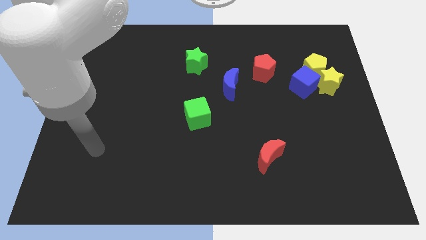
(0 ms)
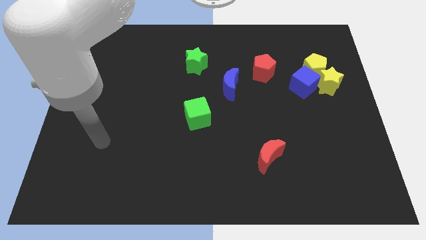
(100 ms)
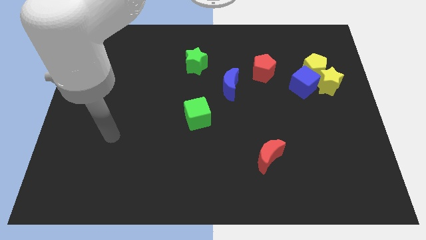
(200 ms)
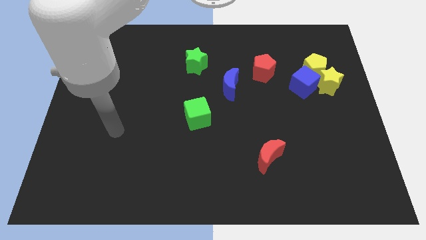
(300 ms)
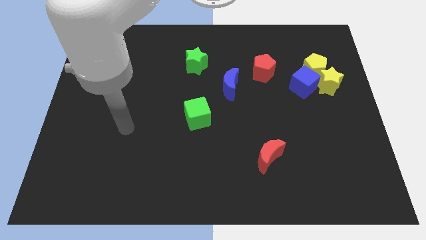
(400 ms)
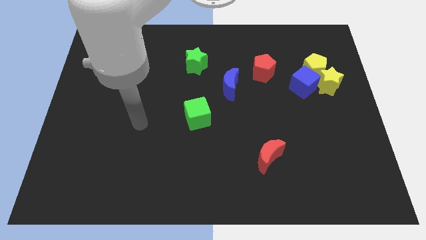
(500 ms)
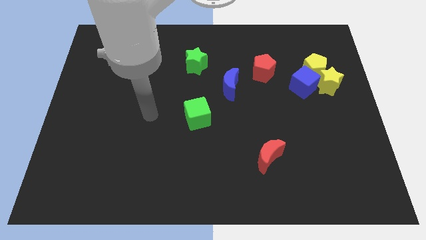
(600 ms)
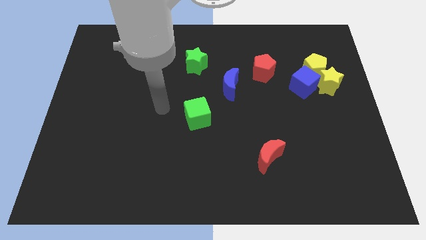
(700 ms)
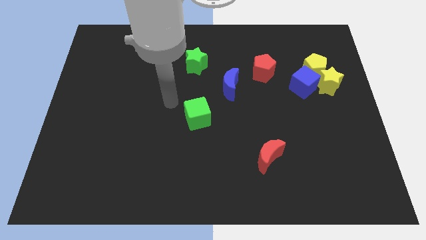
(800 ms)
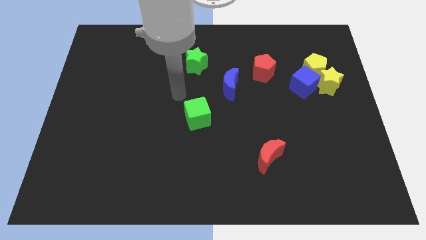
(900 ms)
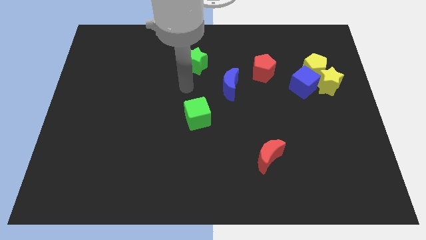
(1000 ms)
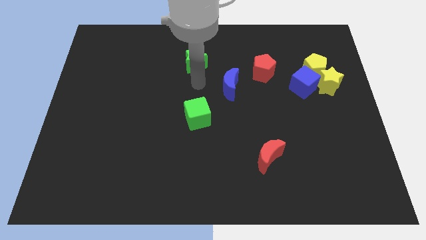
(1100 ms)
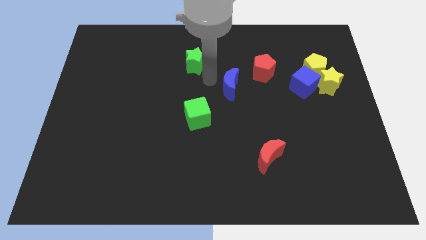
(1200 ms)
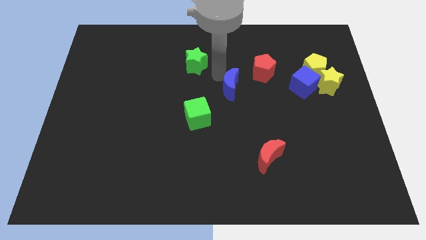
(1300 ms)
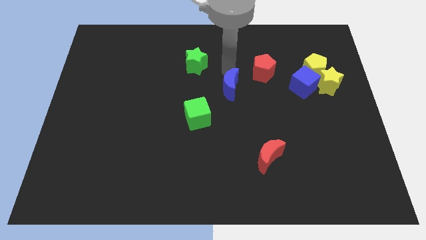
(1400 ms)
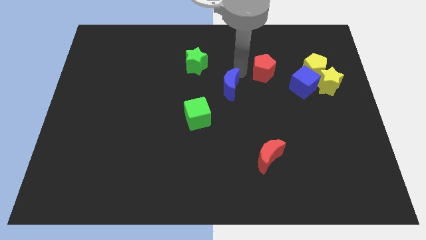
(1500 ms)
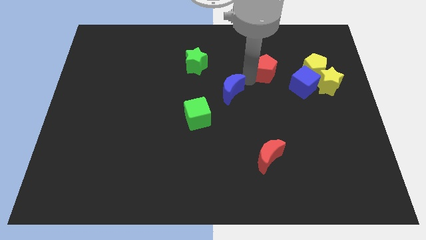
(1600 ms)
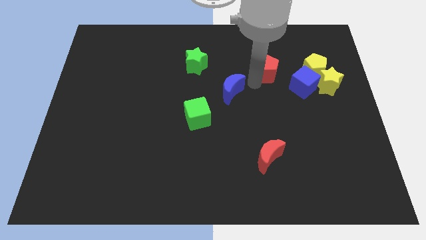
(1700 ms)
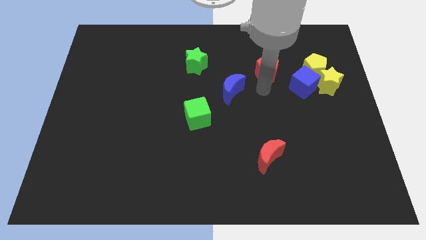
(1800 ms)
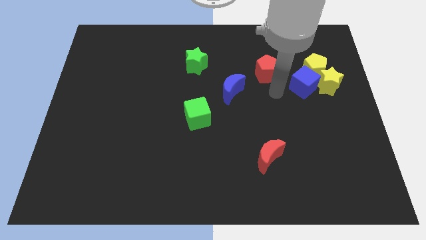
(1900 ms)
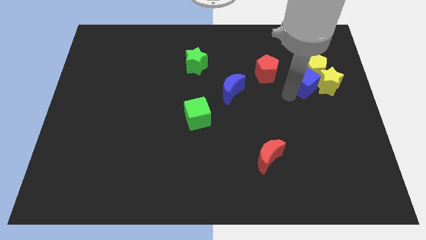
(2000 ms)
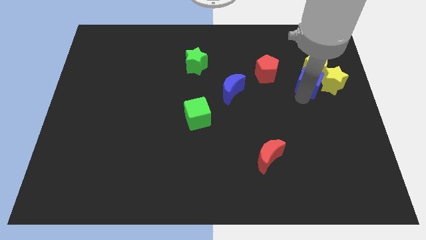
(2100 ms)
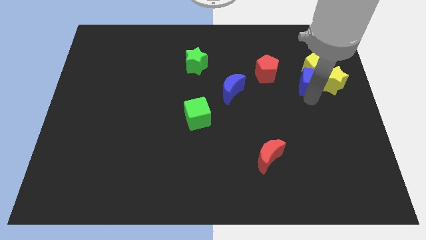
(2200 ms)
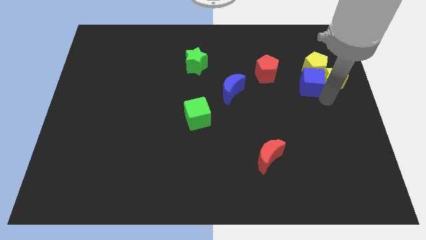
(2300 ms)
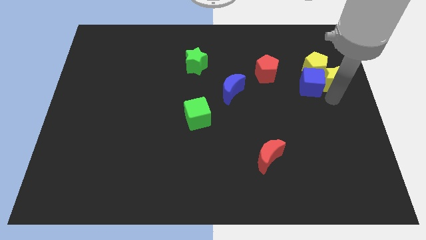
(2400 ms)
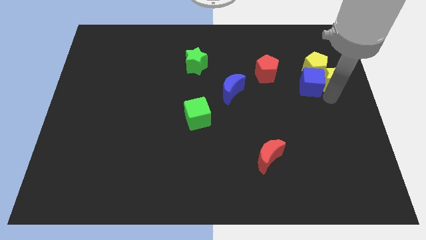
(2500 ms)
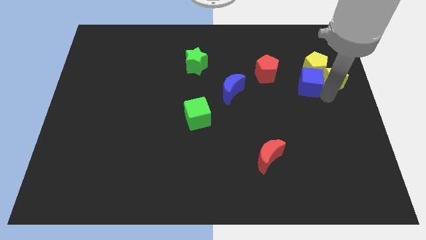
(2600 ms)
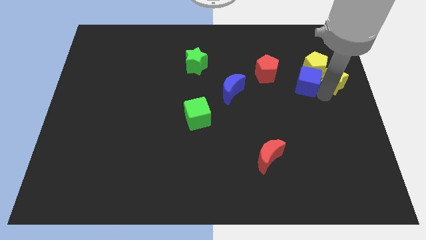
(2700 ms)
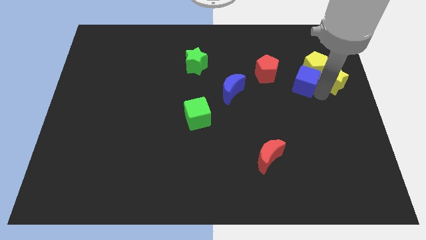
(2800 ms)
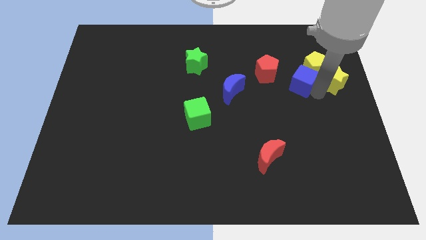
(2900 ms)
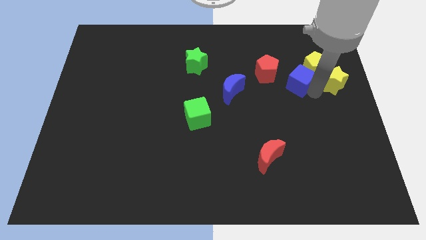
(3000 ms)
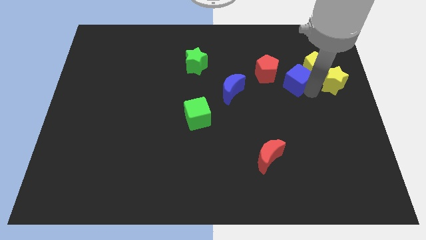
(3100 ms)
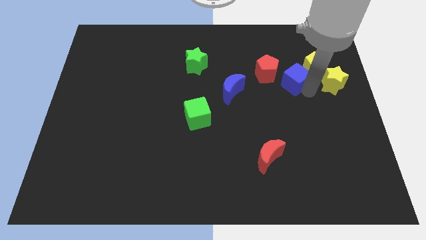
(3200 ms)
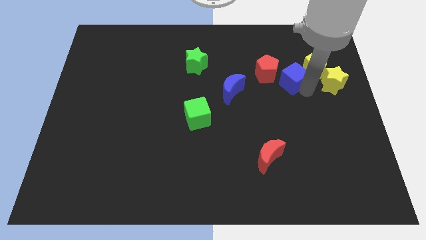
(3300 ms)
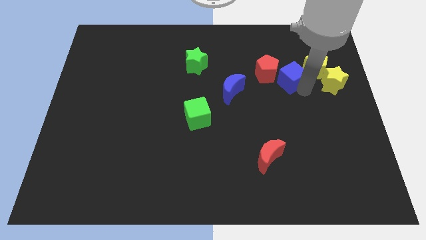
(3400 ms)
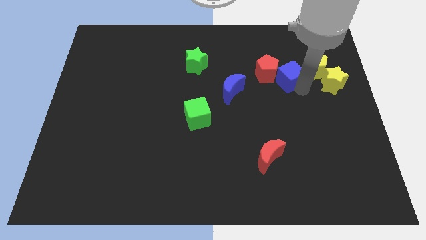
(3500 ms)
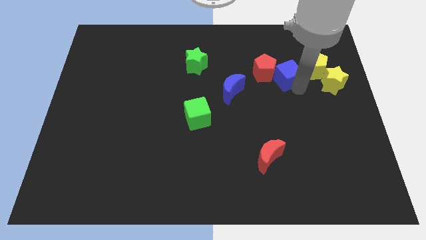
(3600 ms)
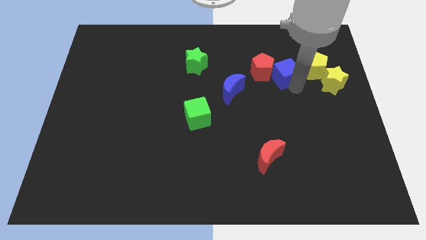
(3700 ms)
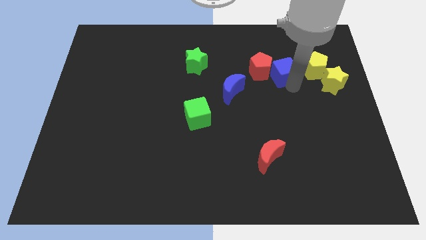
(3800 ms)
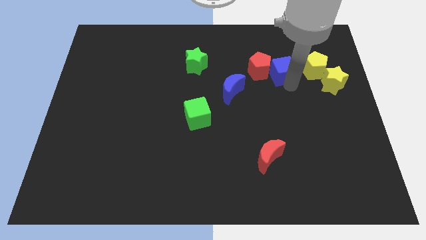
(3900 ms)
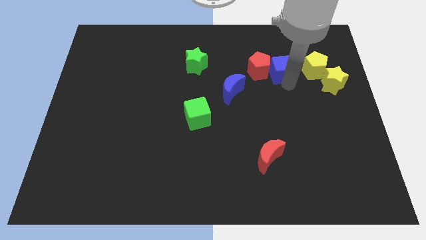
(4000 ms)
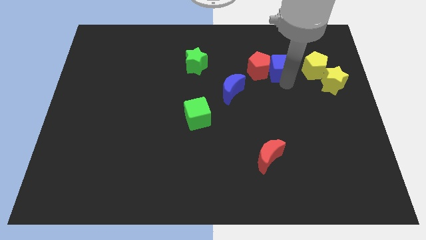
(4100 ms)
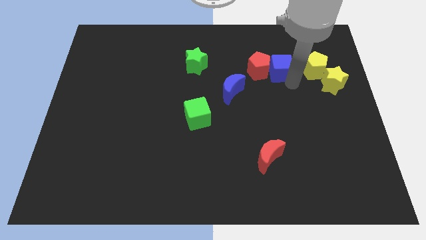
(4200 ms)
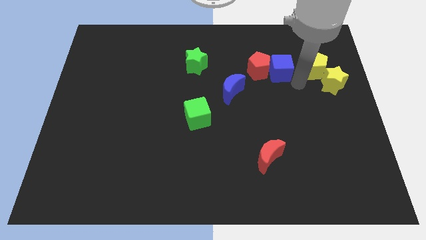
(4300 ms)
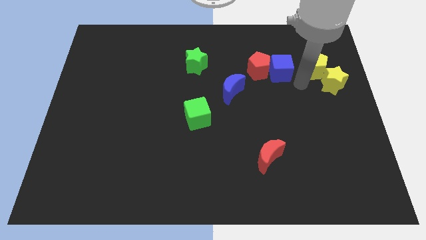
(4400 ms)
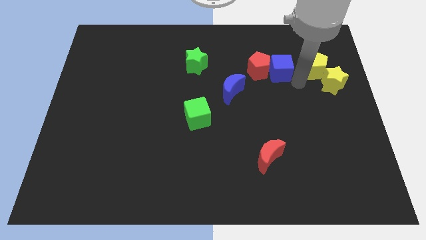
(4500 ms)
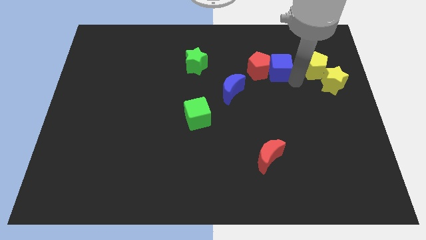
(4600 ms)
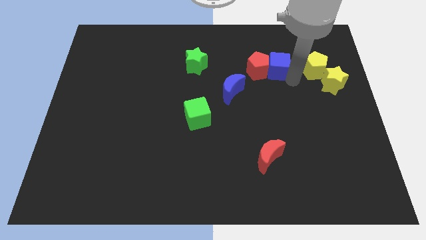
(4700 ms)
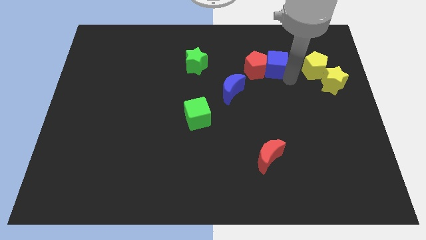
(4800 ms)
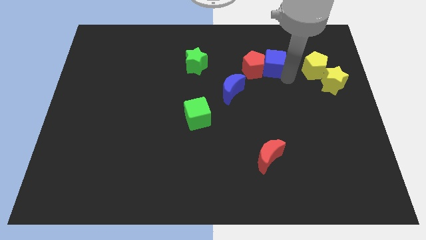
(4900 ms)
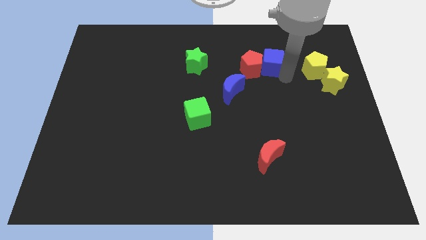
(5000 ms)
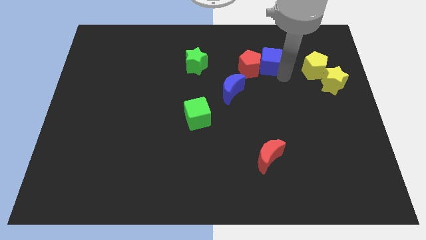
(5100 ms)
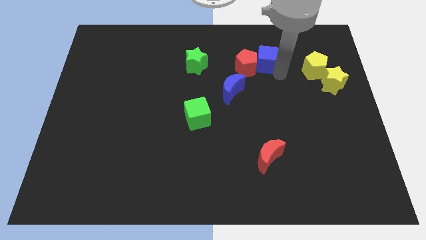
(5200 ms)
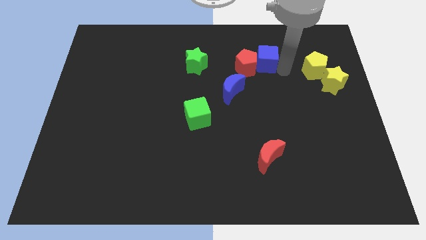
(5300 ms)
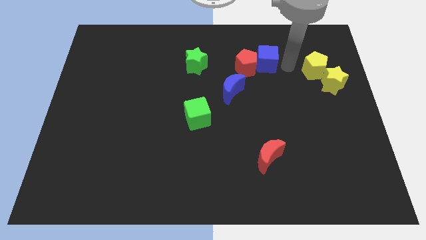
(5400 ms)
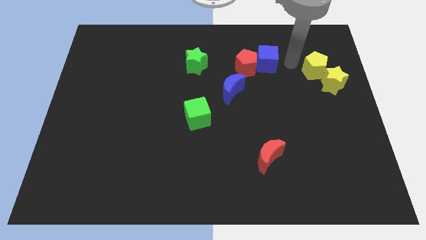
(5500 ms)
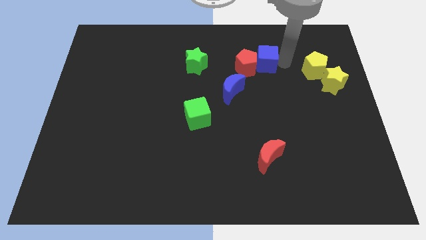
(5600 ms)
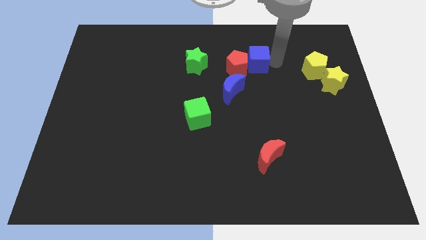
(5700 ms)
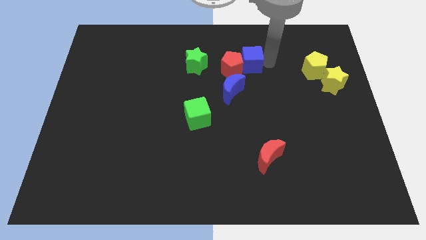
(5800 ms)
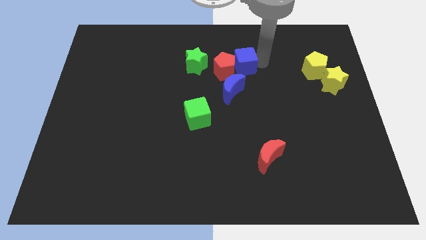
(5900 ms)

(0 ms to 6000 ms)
push the blue cube above the blue moon

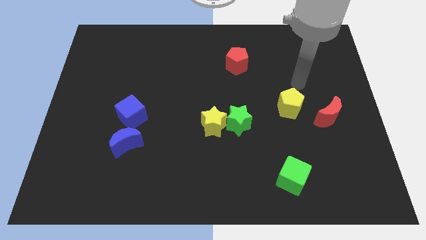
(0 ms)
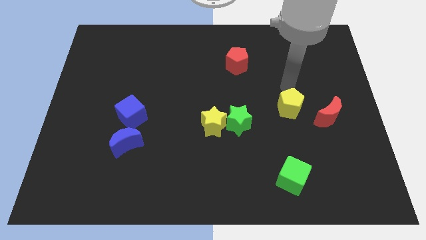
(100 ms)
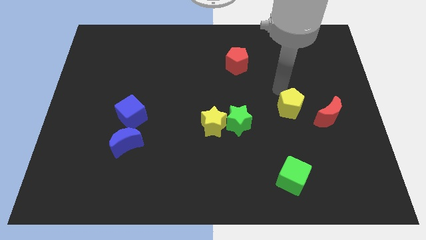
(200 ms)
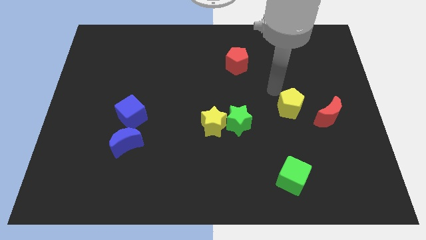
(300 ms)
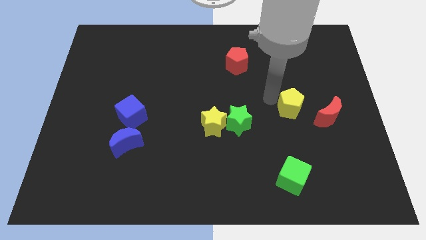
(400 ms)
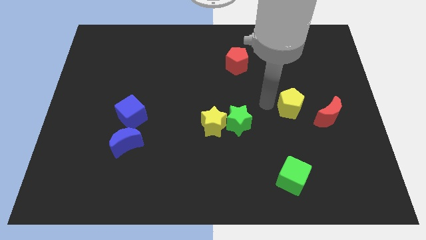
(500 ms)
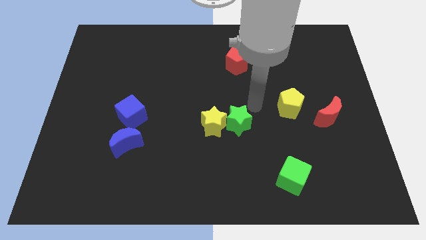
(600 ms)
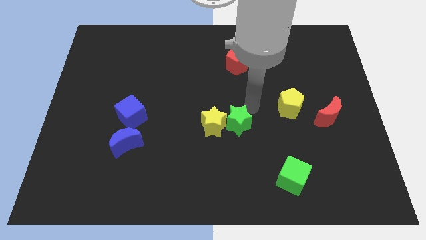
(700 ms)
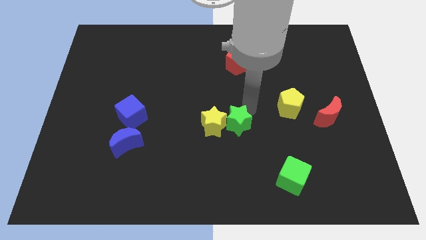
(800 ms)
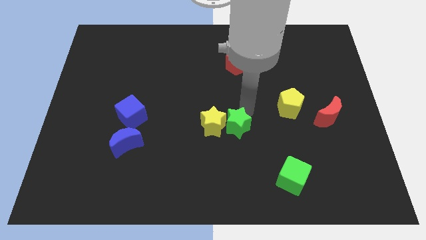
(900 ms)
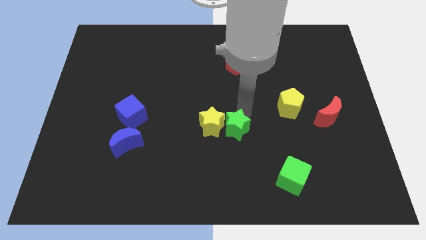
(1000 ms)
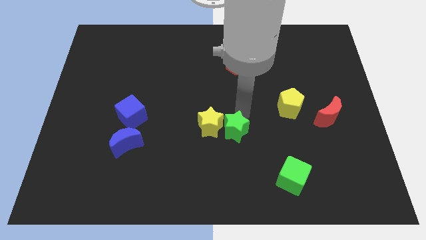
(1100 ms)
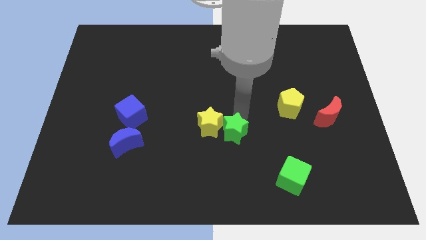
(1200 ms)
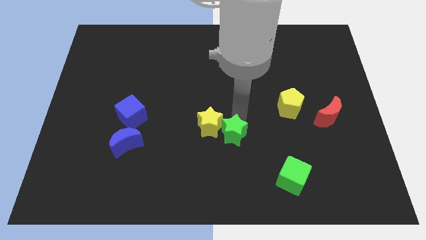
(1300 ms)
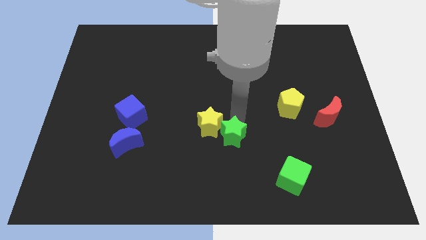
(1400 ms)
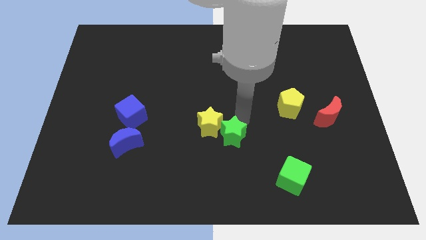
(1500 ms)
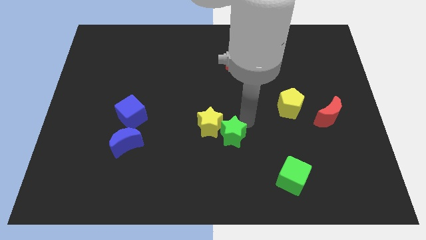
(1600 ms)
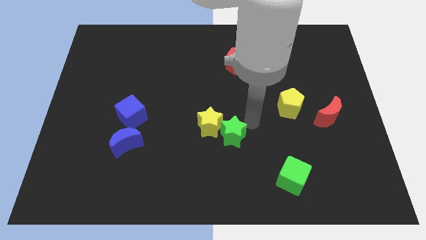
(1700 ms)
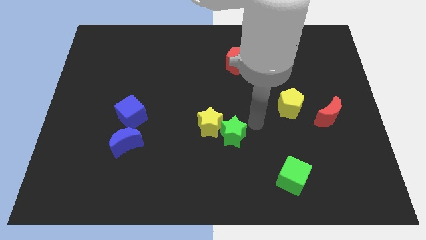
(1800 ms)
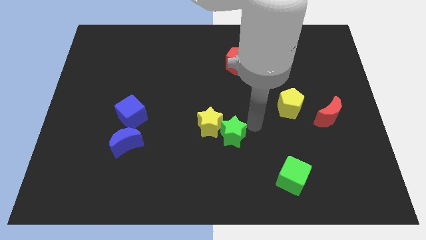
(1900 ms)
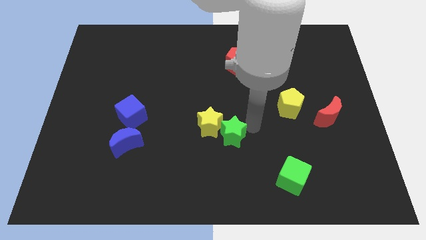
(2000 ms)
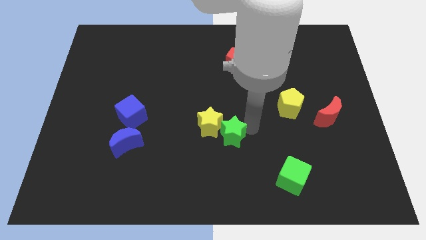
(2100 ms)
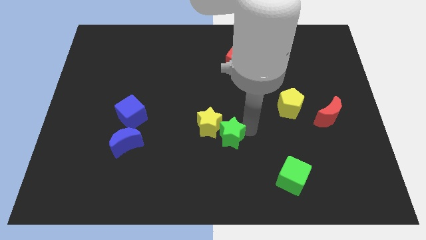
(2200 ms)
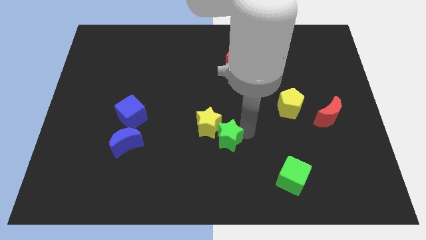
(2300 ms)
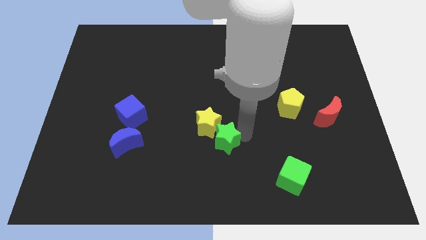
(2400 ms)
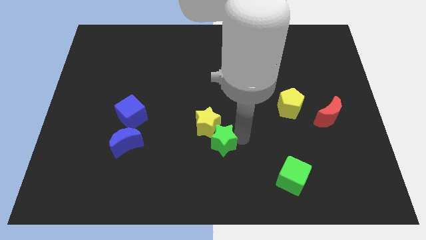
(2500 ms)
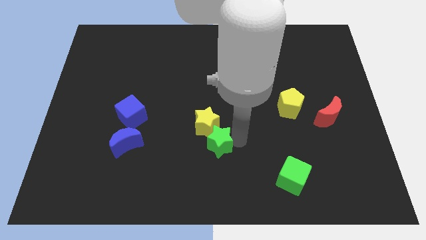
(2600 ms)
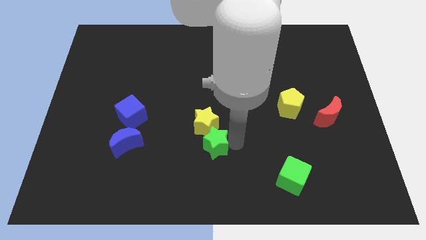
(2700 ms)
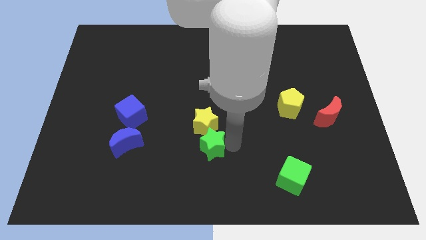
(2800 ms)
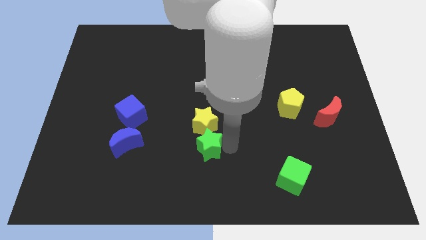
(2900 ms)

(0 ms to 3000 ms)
slide the green star to the bottom left of the yellow star
